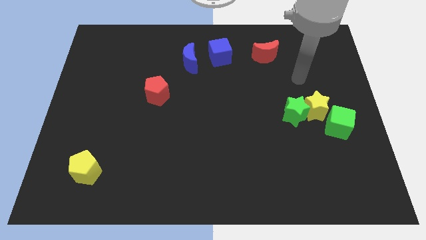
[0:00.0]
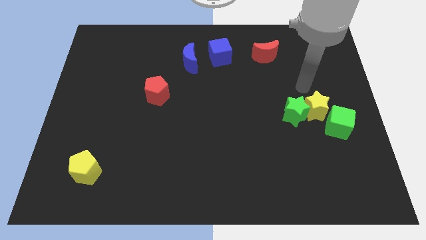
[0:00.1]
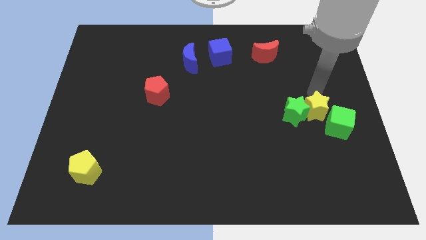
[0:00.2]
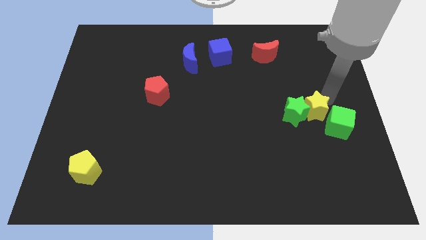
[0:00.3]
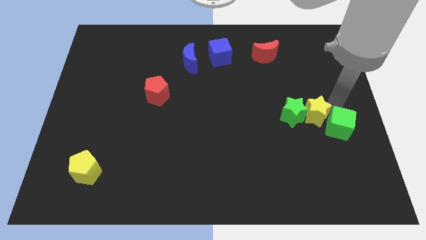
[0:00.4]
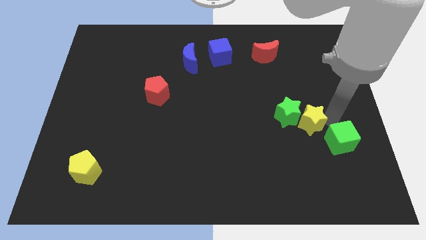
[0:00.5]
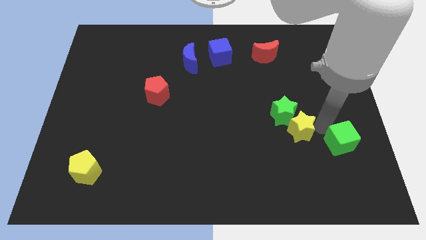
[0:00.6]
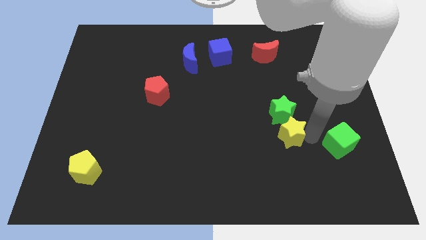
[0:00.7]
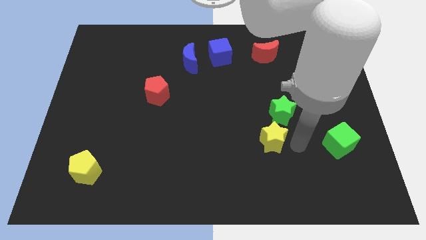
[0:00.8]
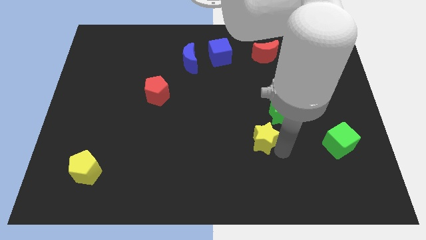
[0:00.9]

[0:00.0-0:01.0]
pull the yellow star apart from the green star and green cube

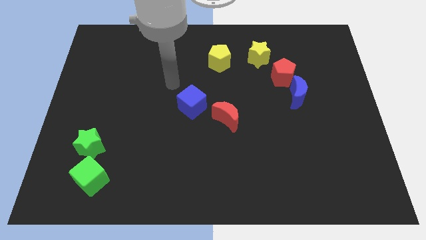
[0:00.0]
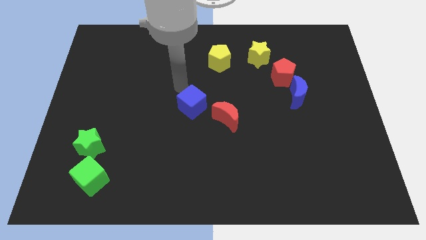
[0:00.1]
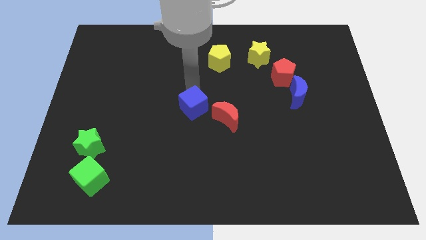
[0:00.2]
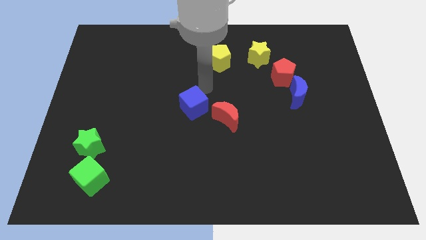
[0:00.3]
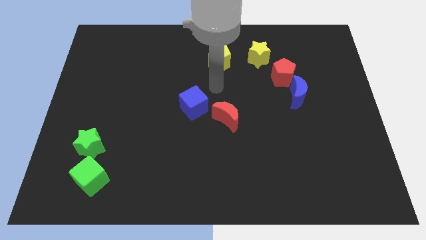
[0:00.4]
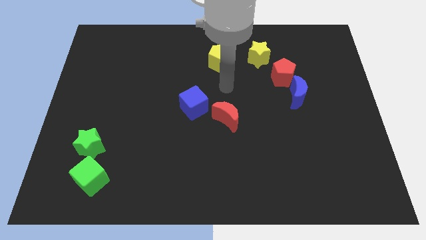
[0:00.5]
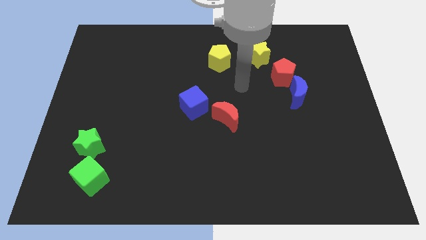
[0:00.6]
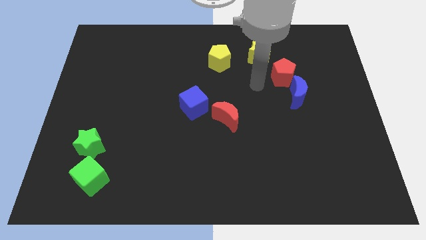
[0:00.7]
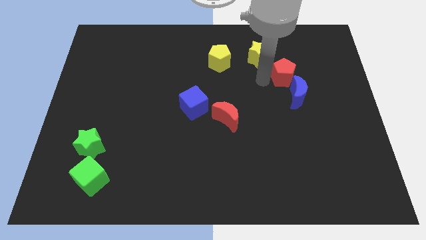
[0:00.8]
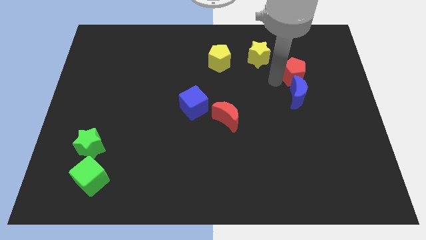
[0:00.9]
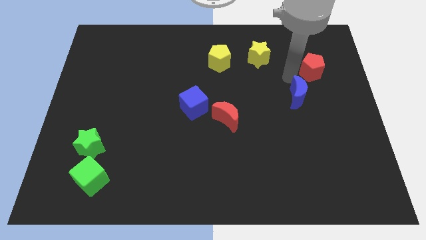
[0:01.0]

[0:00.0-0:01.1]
separate the blue moon from the red pentagon

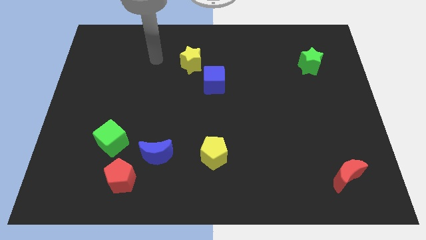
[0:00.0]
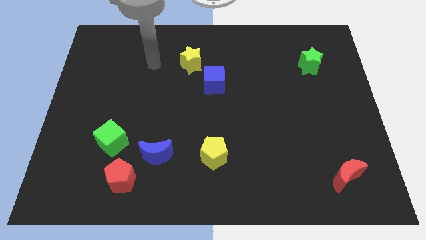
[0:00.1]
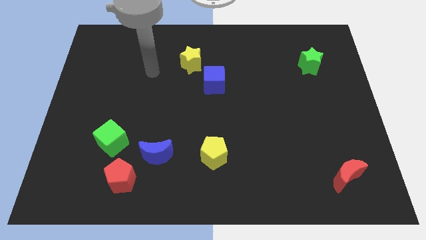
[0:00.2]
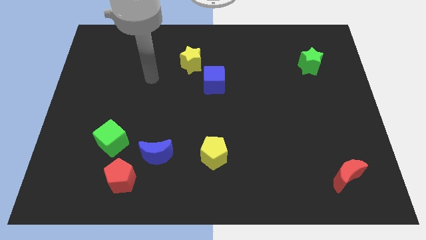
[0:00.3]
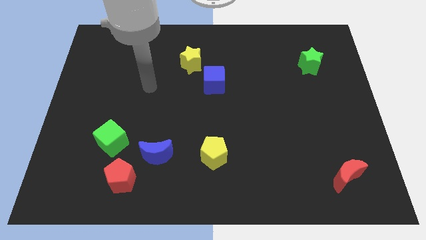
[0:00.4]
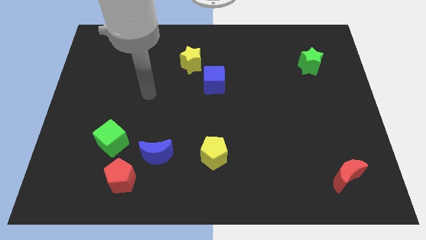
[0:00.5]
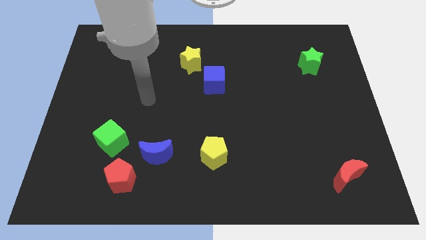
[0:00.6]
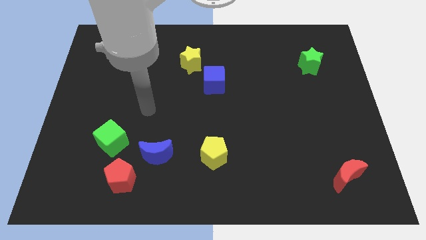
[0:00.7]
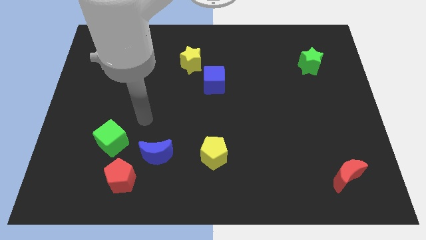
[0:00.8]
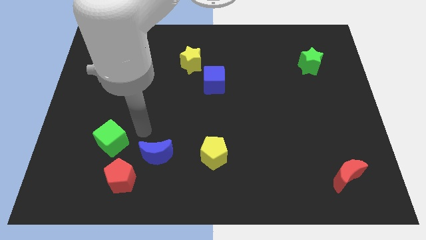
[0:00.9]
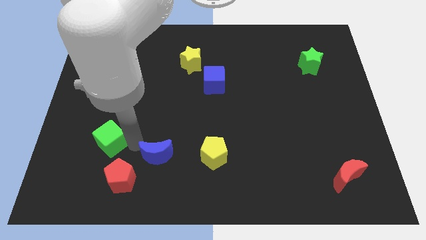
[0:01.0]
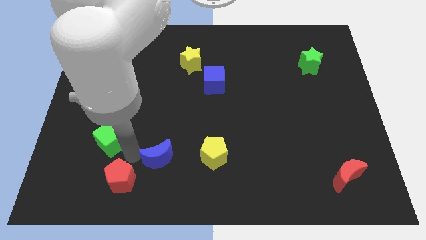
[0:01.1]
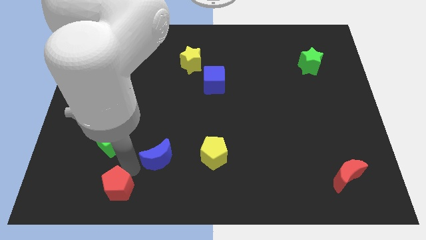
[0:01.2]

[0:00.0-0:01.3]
pull the blue moon apart from the red pentagon

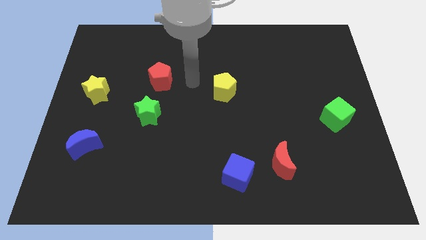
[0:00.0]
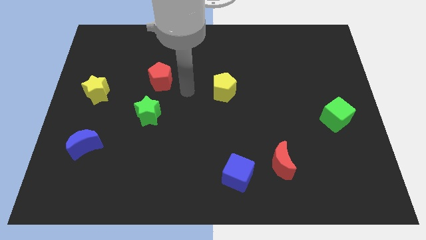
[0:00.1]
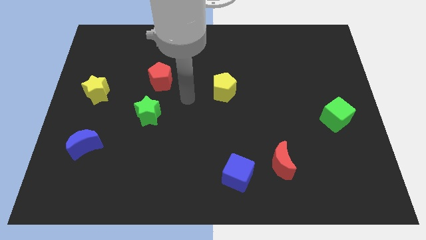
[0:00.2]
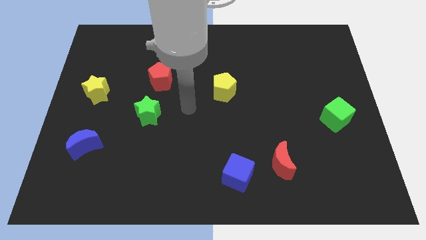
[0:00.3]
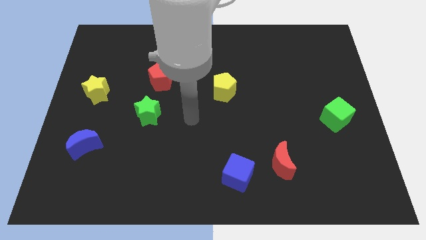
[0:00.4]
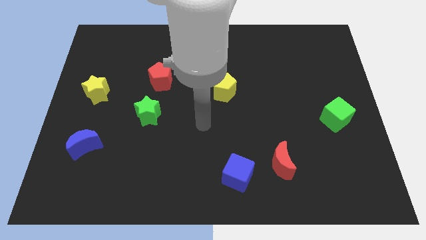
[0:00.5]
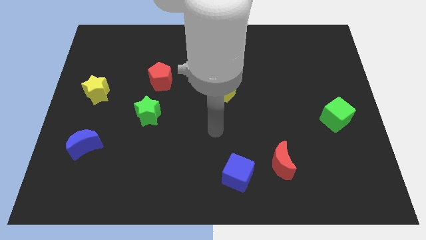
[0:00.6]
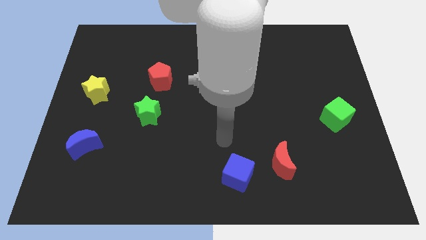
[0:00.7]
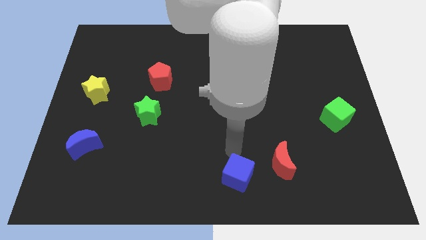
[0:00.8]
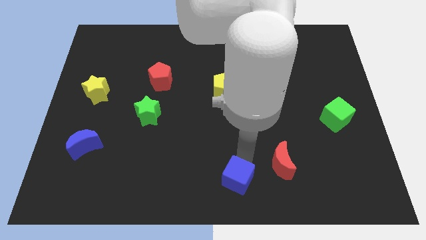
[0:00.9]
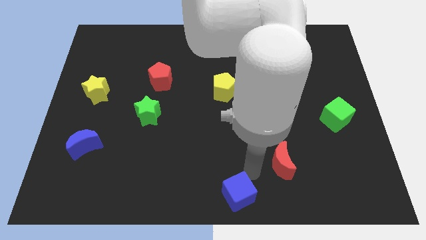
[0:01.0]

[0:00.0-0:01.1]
move the red moon away from the blue cube

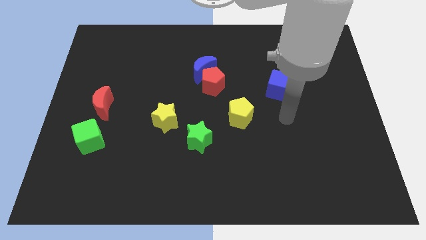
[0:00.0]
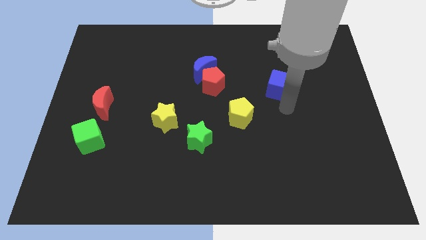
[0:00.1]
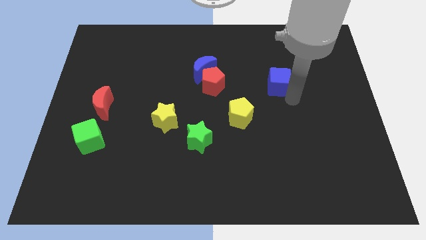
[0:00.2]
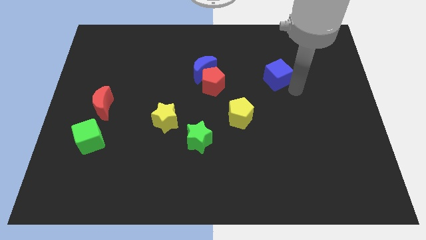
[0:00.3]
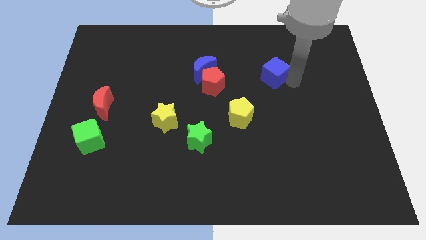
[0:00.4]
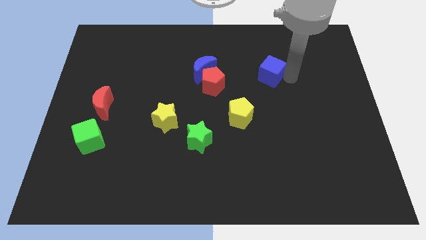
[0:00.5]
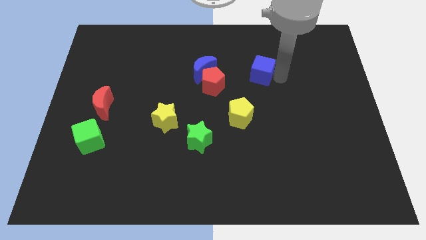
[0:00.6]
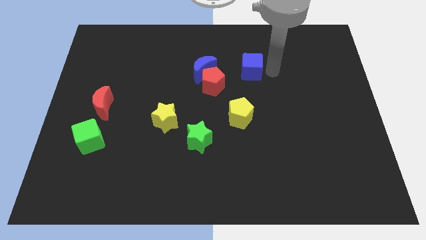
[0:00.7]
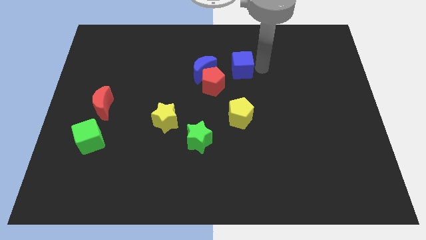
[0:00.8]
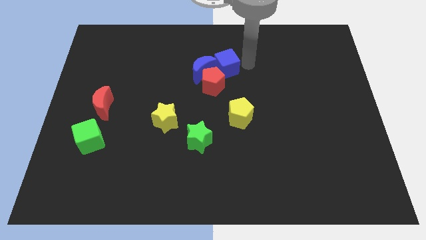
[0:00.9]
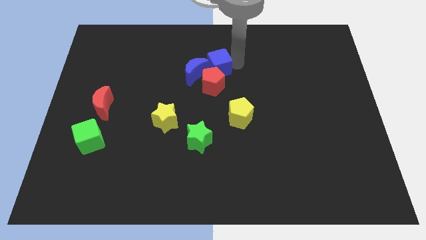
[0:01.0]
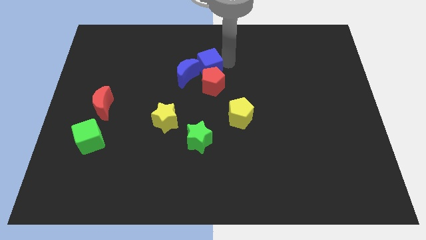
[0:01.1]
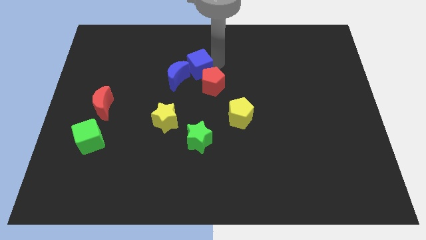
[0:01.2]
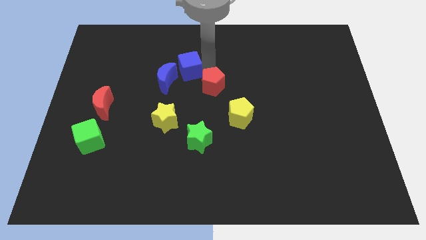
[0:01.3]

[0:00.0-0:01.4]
separate the red pentagon from the blue moon

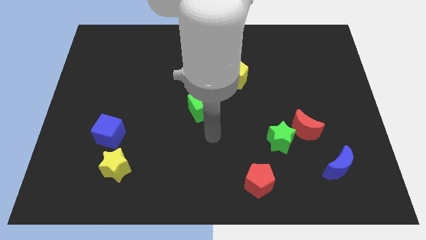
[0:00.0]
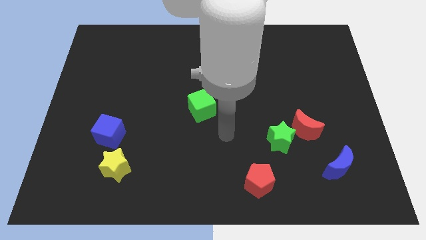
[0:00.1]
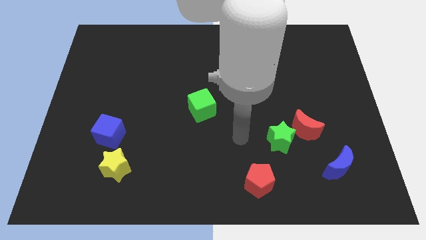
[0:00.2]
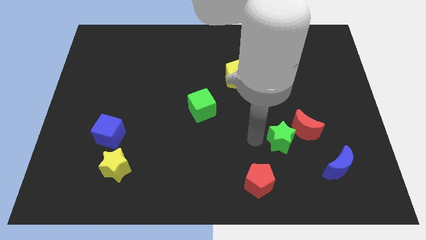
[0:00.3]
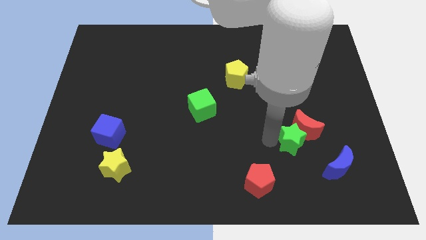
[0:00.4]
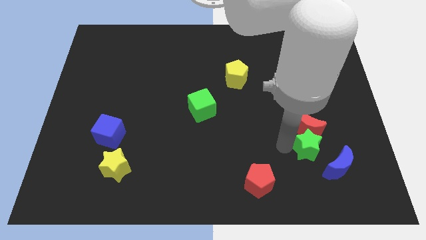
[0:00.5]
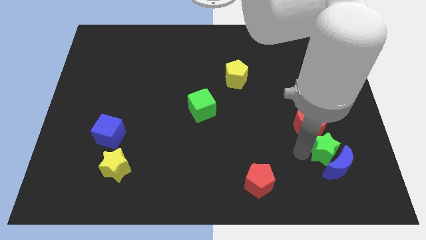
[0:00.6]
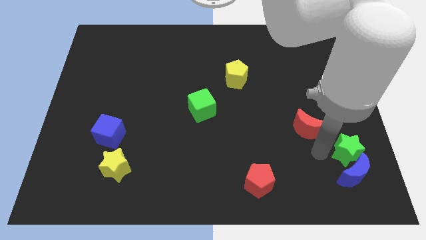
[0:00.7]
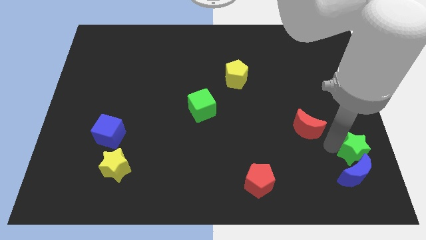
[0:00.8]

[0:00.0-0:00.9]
move the red moon away from the green star

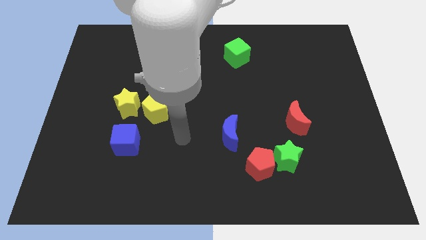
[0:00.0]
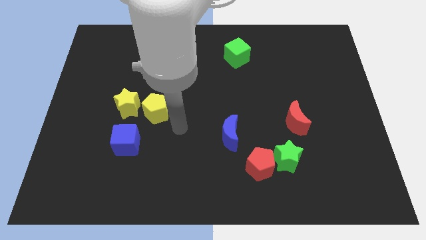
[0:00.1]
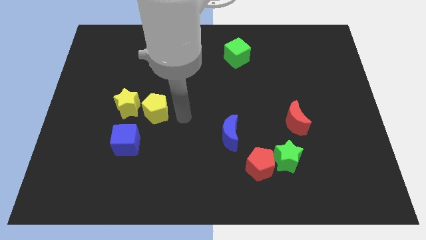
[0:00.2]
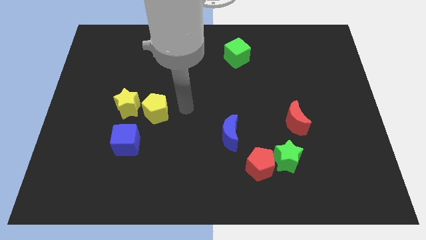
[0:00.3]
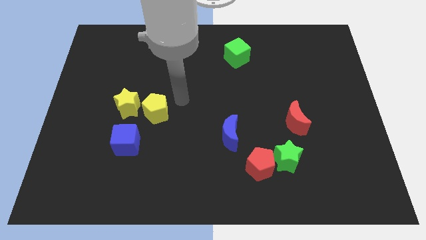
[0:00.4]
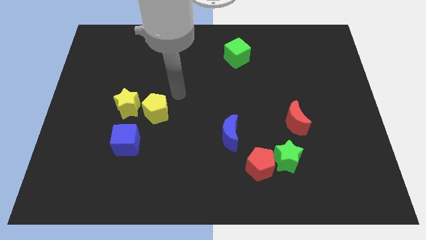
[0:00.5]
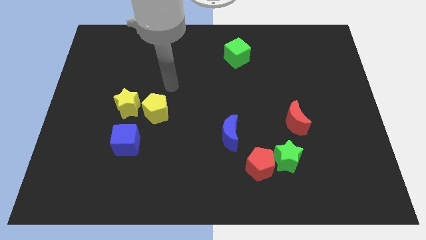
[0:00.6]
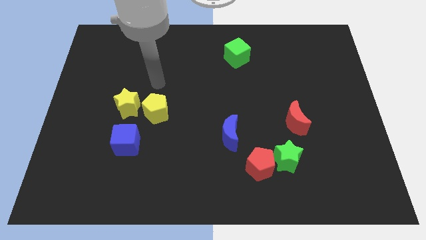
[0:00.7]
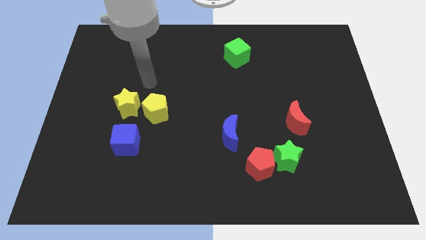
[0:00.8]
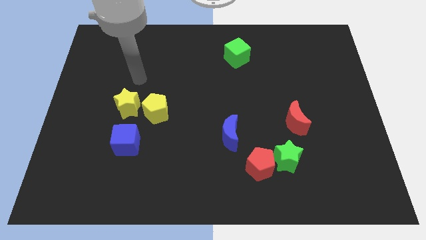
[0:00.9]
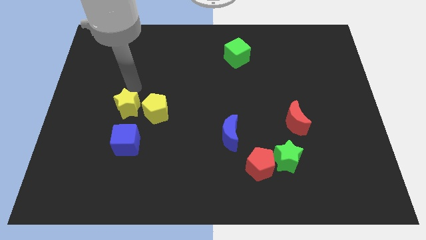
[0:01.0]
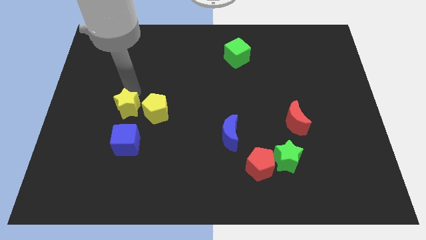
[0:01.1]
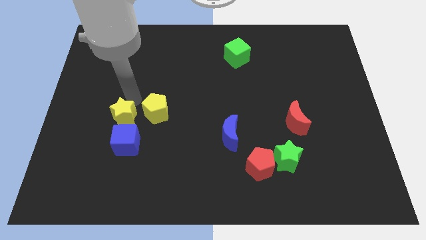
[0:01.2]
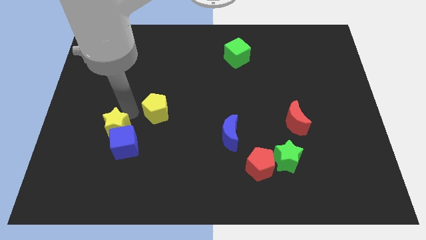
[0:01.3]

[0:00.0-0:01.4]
move the yellow pentagon away from the yellow star

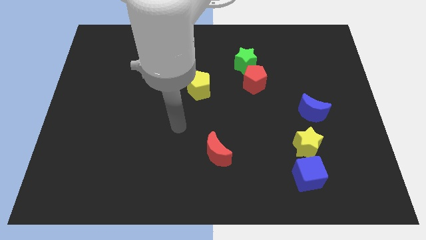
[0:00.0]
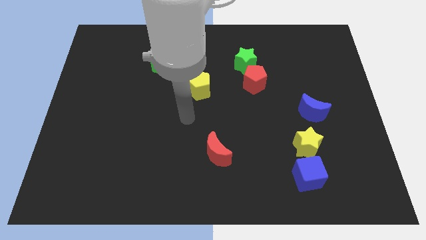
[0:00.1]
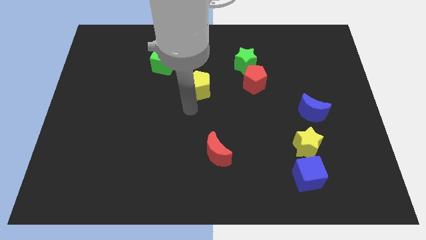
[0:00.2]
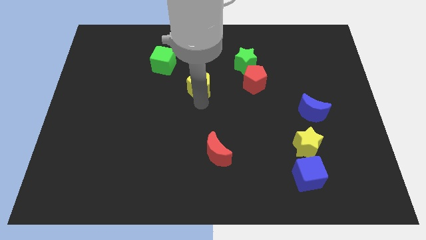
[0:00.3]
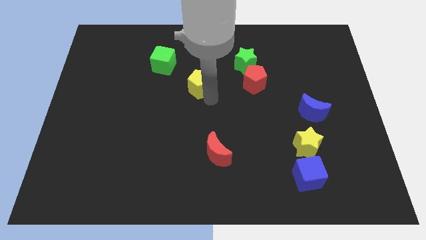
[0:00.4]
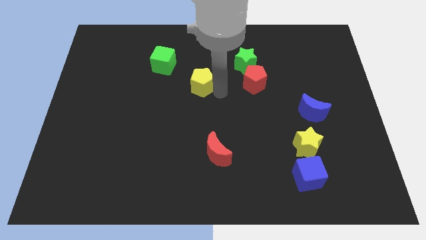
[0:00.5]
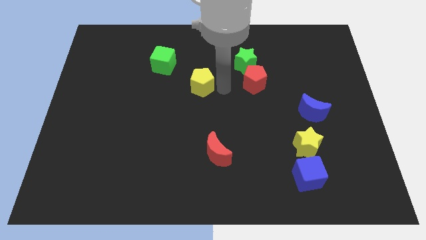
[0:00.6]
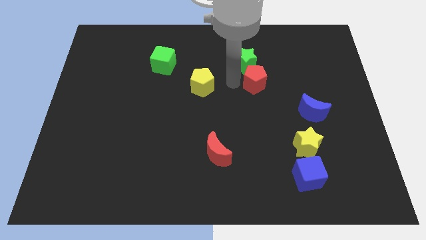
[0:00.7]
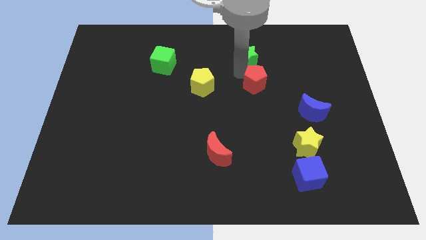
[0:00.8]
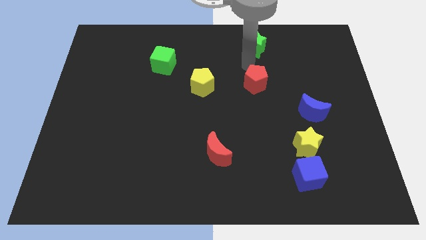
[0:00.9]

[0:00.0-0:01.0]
separate the red pentagon from the green star

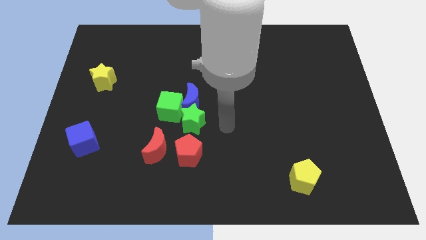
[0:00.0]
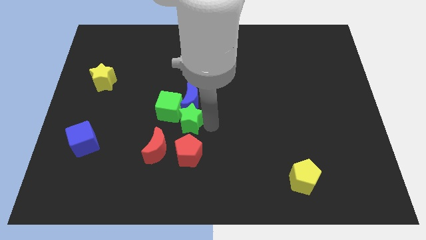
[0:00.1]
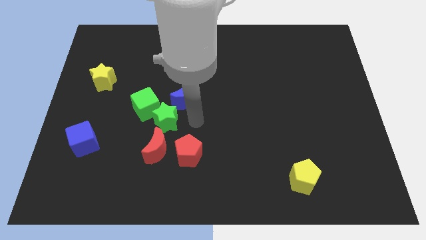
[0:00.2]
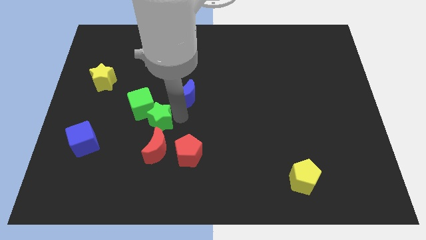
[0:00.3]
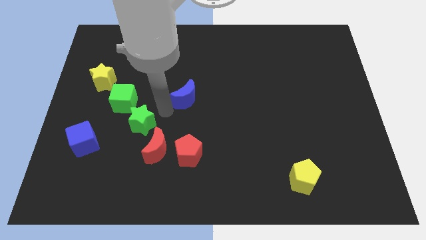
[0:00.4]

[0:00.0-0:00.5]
separate the blue moon from the green cube and green star
